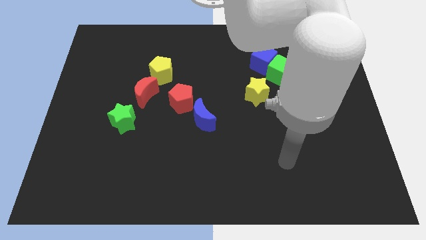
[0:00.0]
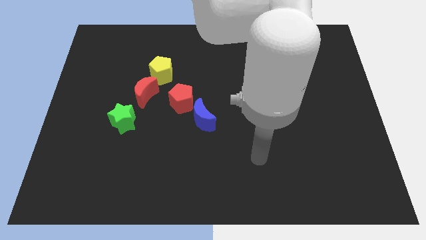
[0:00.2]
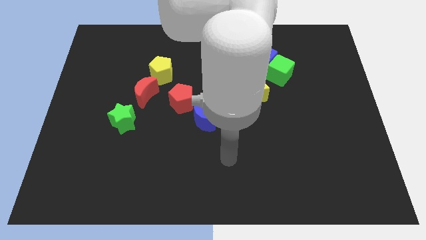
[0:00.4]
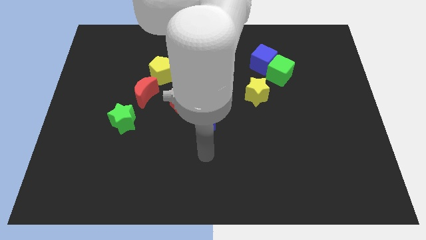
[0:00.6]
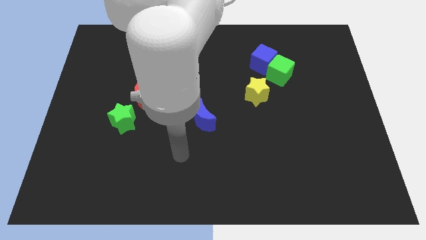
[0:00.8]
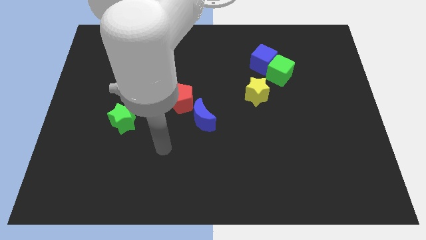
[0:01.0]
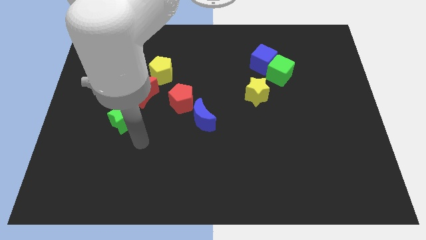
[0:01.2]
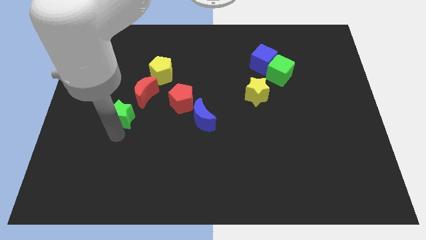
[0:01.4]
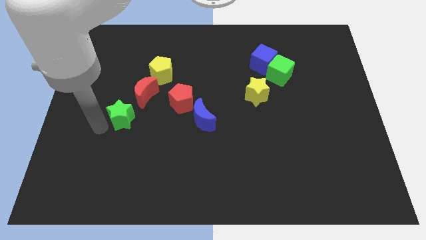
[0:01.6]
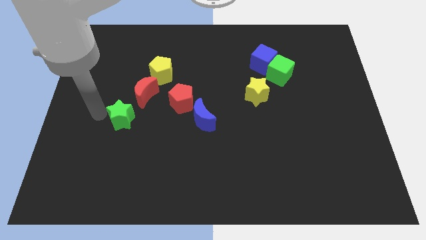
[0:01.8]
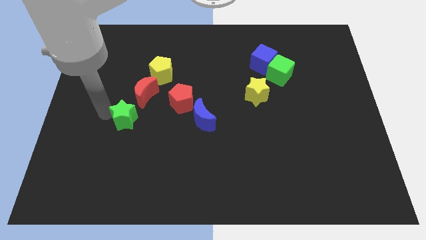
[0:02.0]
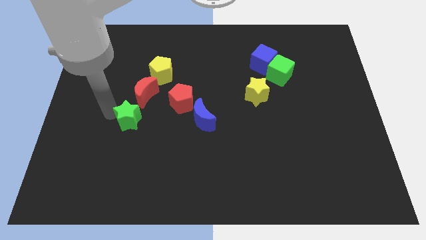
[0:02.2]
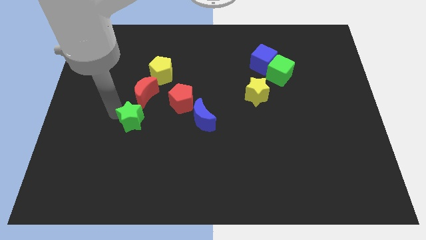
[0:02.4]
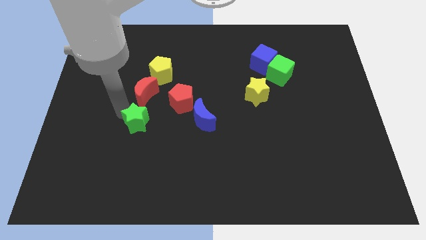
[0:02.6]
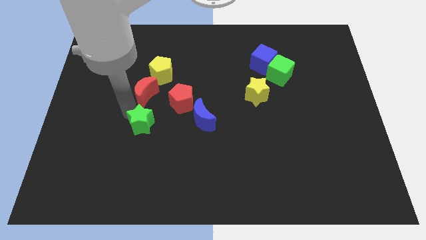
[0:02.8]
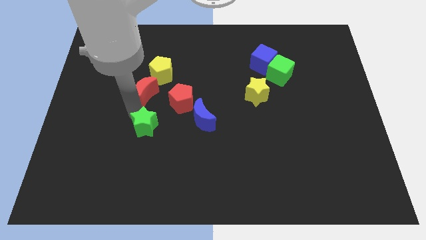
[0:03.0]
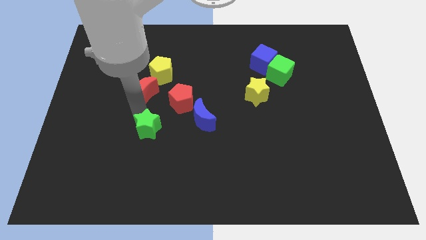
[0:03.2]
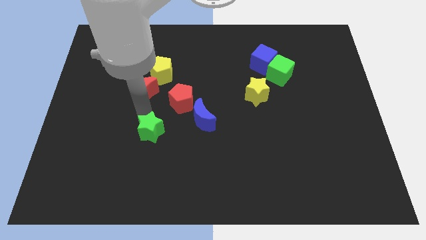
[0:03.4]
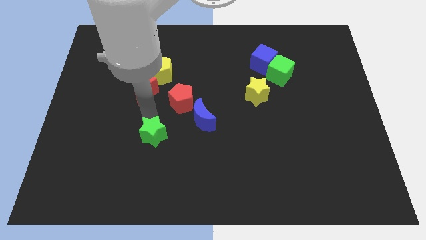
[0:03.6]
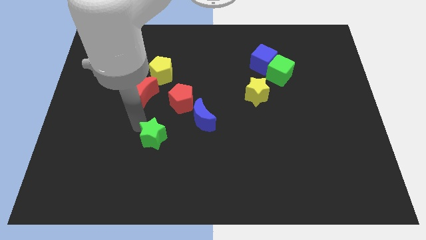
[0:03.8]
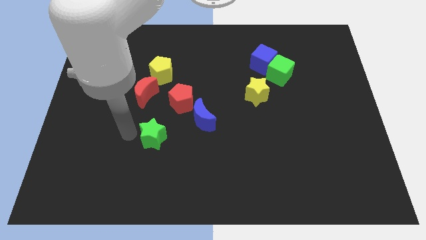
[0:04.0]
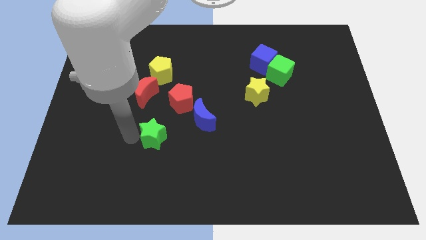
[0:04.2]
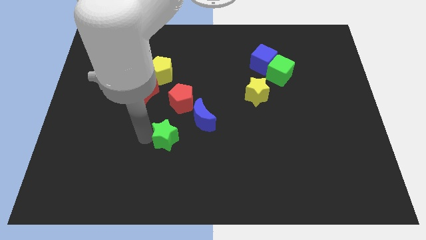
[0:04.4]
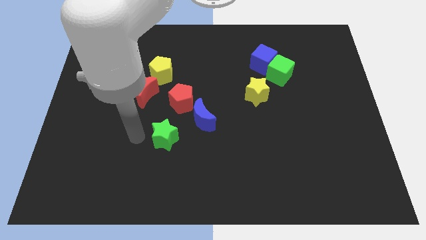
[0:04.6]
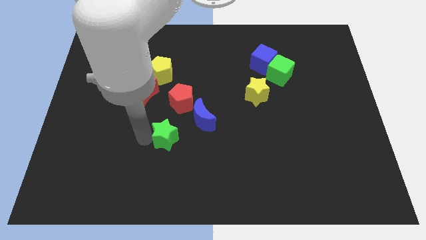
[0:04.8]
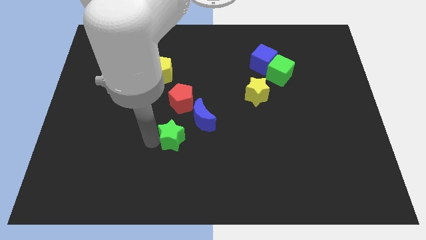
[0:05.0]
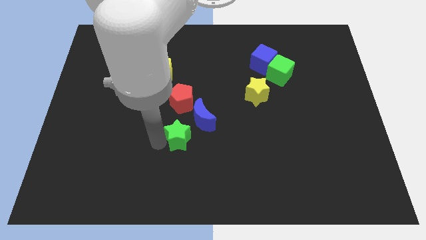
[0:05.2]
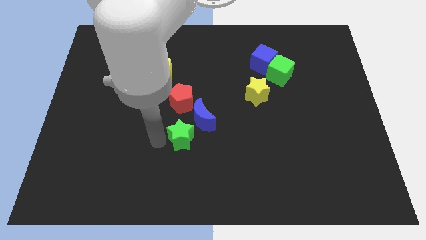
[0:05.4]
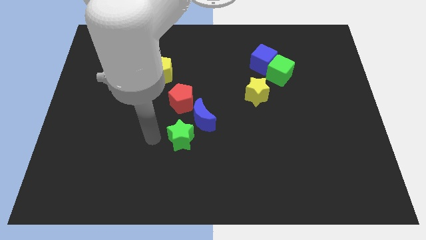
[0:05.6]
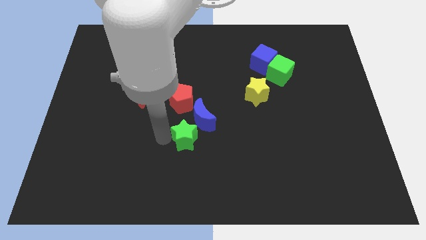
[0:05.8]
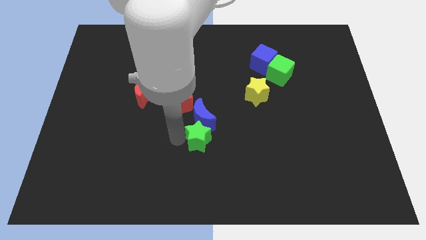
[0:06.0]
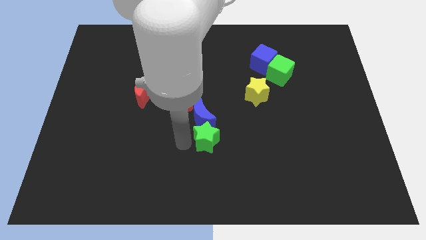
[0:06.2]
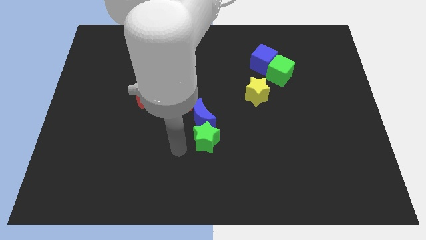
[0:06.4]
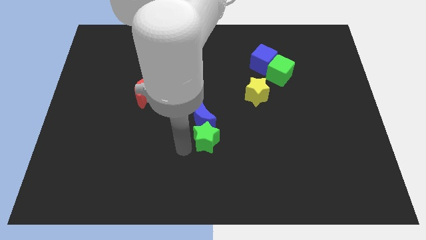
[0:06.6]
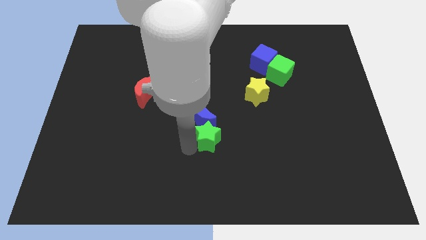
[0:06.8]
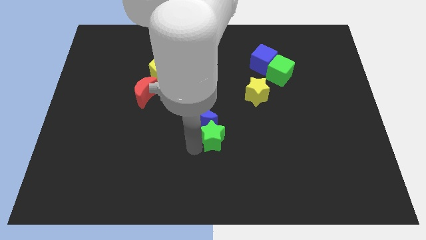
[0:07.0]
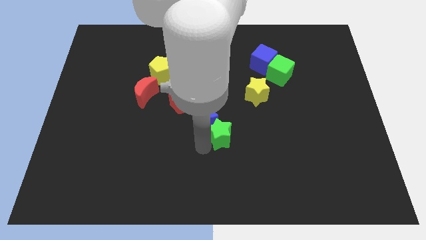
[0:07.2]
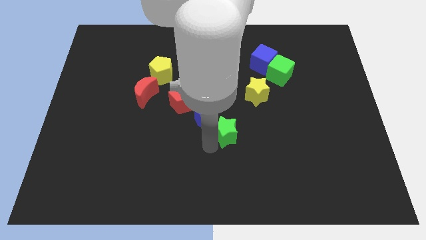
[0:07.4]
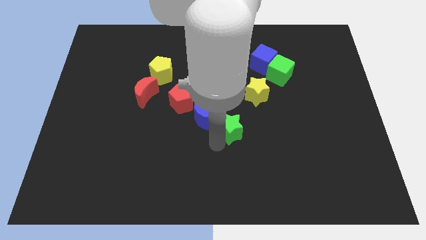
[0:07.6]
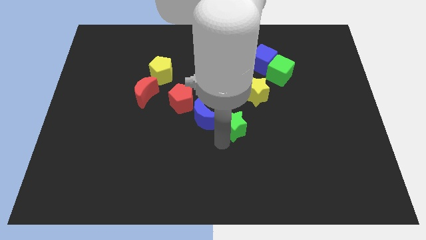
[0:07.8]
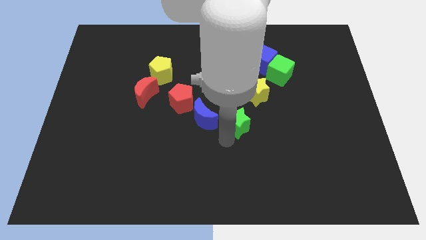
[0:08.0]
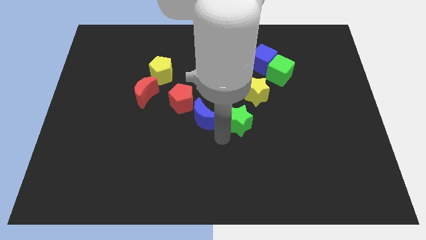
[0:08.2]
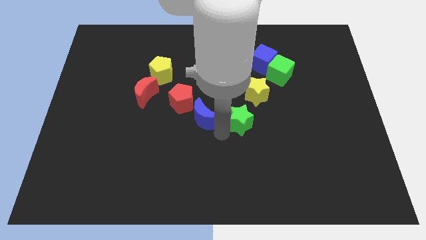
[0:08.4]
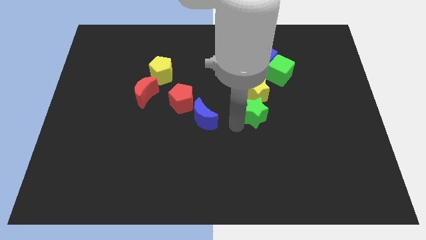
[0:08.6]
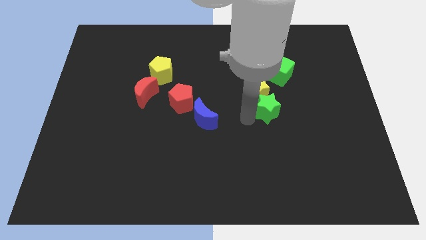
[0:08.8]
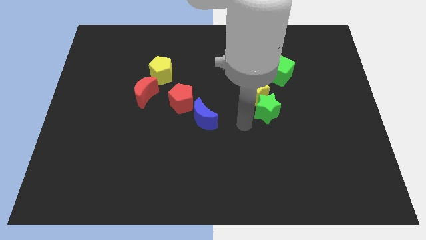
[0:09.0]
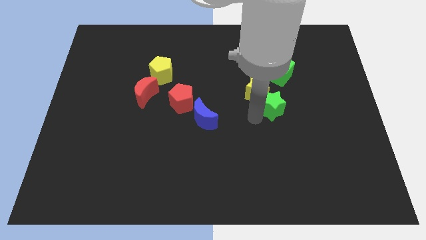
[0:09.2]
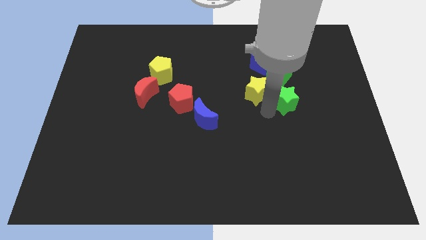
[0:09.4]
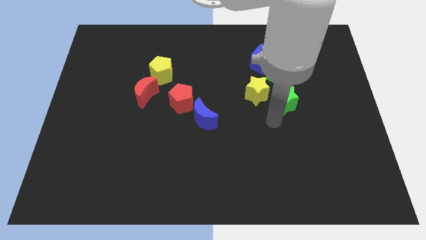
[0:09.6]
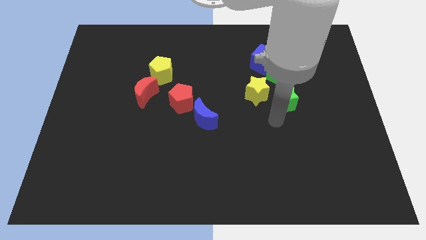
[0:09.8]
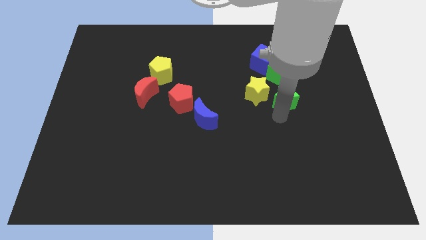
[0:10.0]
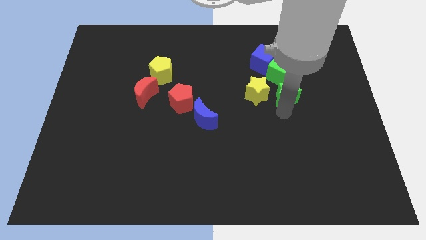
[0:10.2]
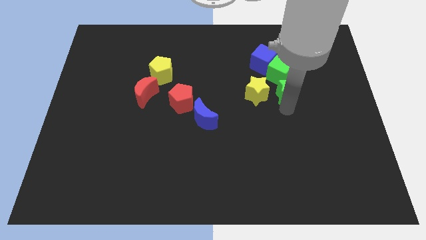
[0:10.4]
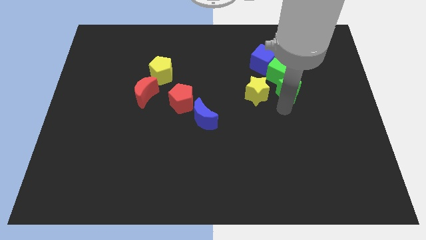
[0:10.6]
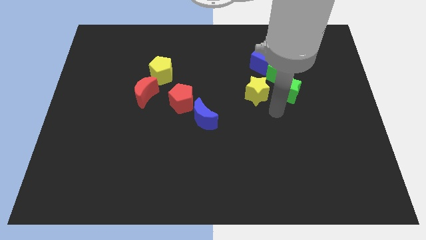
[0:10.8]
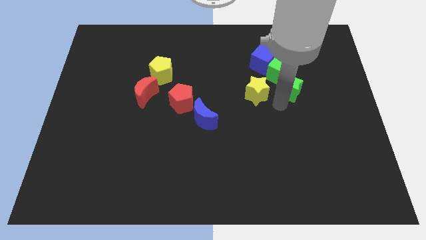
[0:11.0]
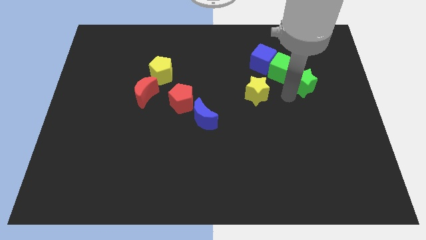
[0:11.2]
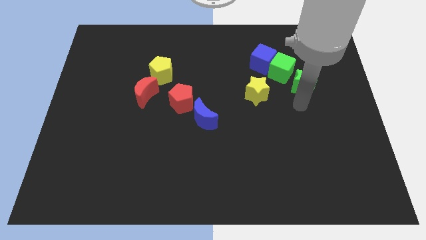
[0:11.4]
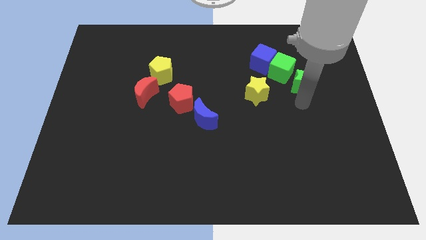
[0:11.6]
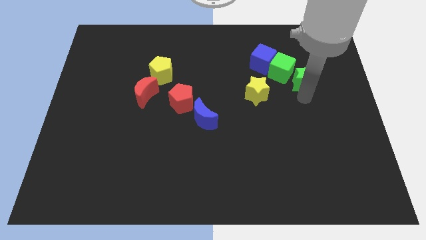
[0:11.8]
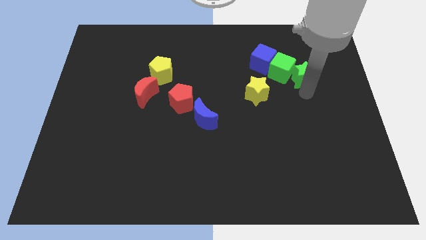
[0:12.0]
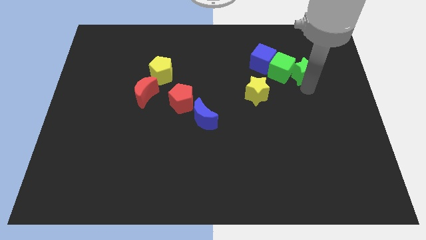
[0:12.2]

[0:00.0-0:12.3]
move the green star right of the blue cube

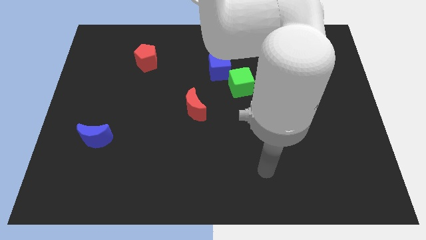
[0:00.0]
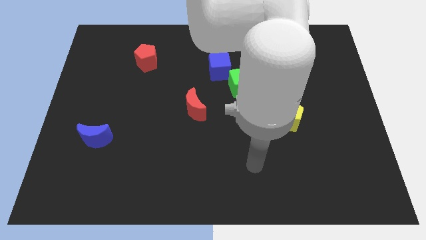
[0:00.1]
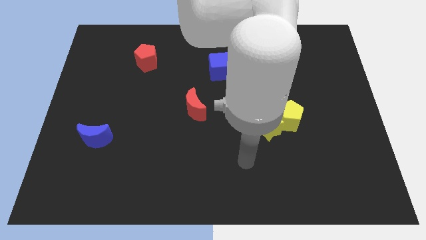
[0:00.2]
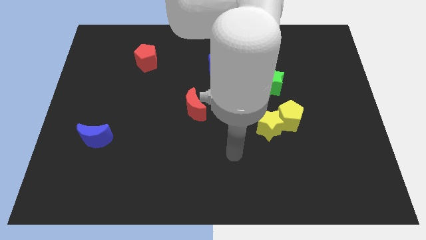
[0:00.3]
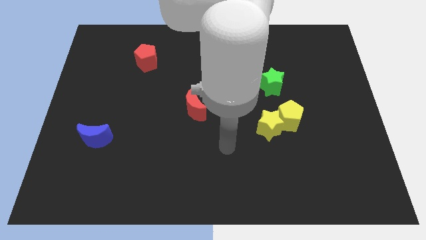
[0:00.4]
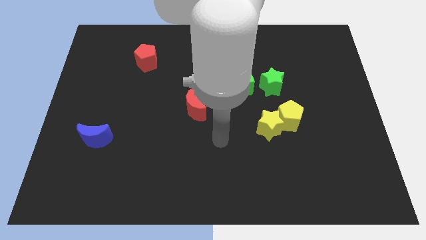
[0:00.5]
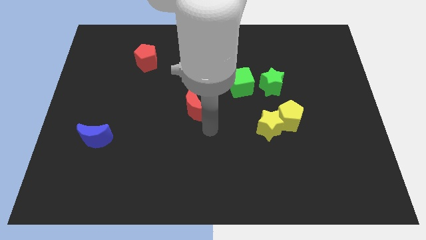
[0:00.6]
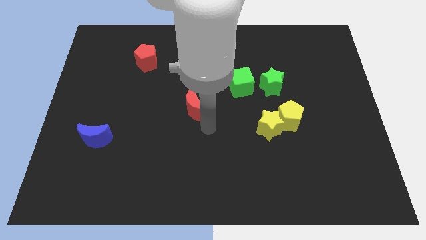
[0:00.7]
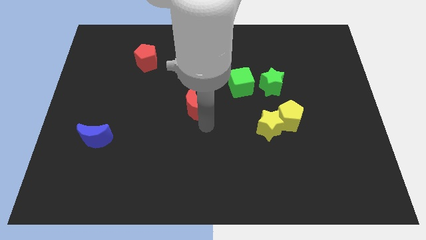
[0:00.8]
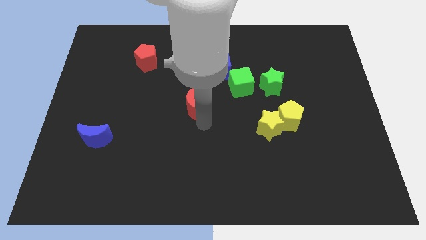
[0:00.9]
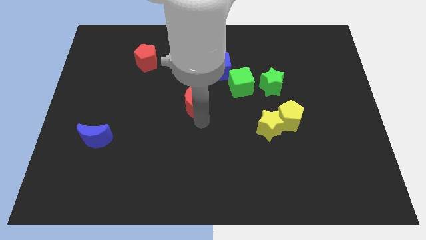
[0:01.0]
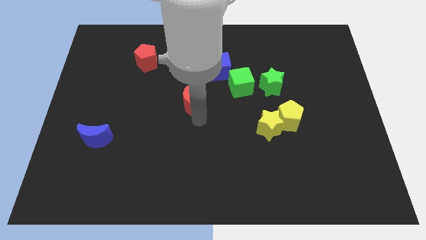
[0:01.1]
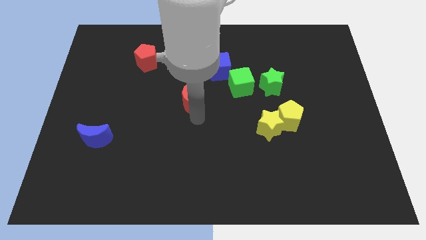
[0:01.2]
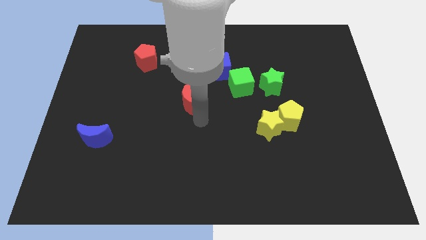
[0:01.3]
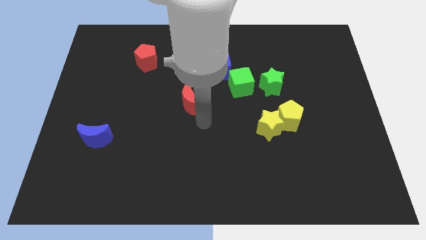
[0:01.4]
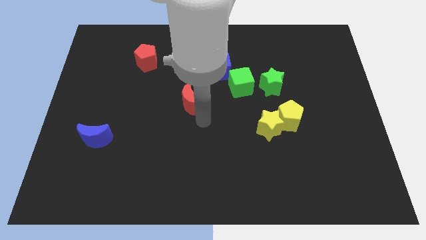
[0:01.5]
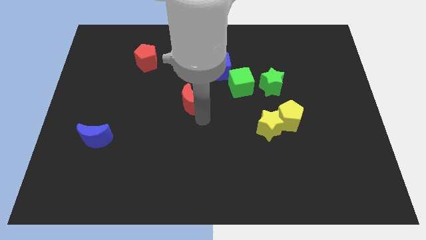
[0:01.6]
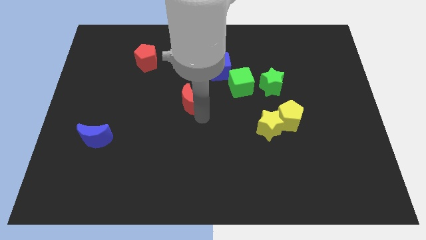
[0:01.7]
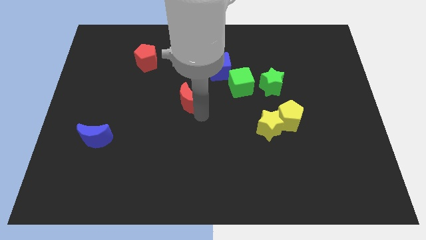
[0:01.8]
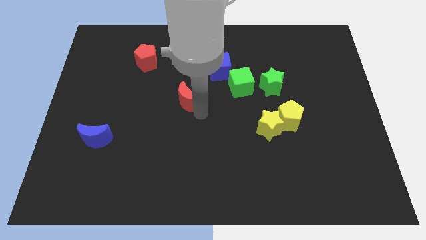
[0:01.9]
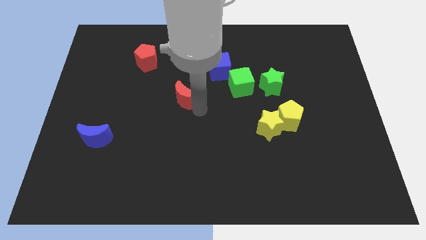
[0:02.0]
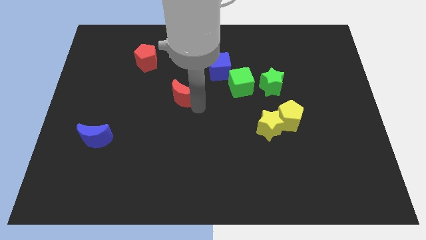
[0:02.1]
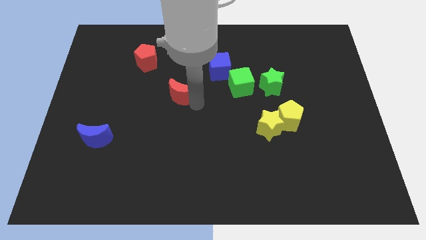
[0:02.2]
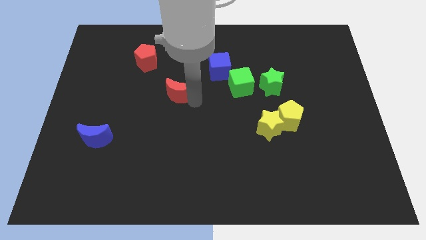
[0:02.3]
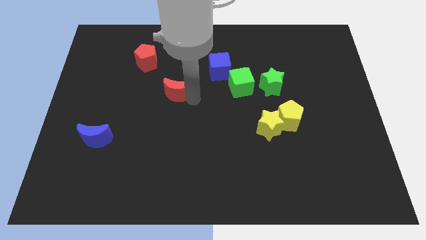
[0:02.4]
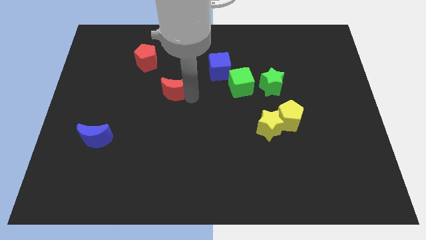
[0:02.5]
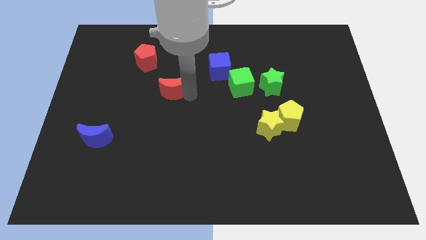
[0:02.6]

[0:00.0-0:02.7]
move the red moon to the bottom right side of the red pentagon
